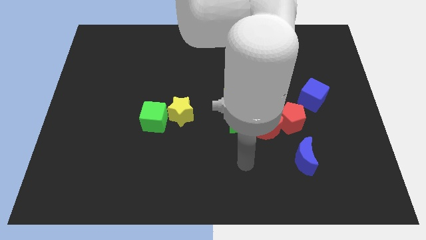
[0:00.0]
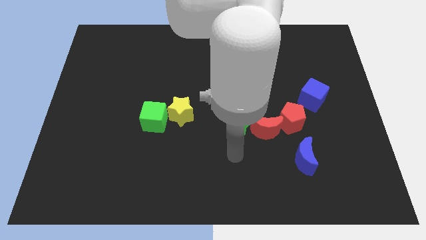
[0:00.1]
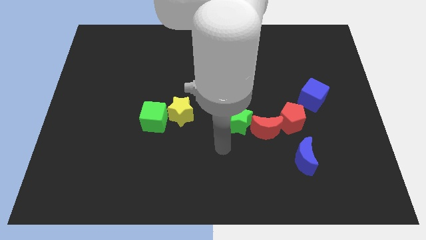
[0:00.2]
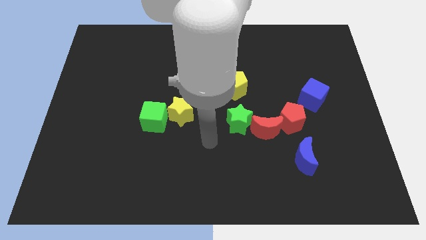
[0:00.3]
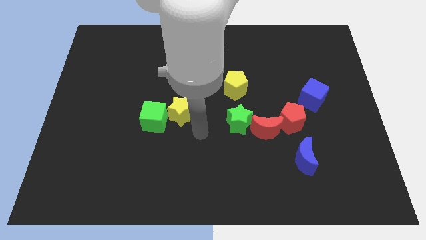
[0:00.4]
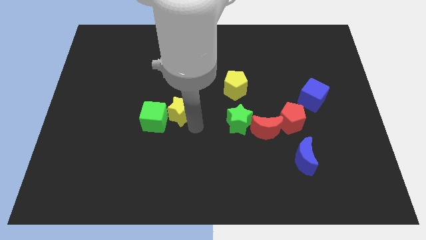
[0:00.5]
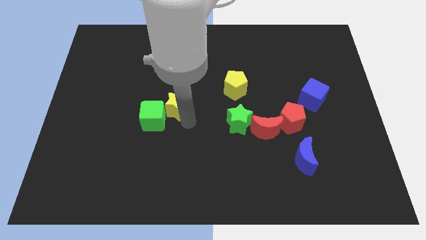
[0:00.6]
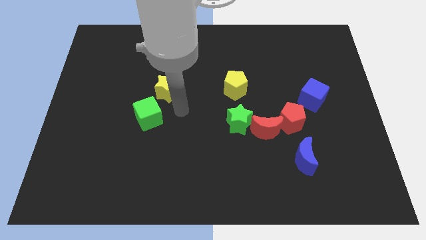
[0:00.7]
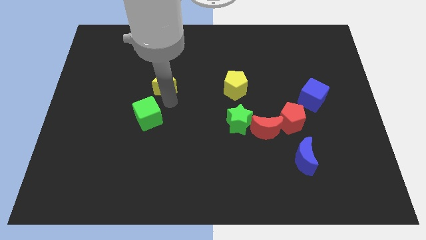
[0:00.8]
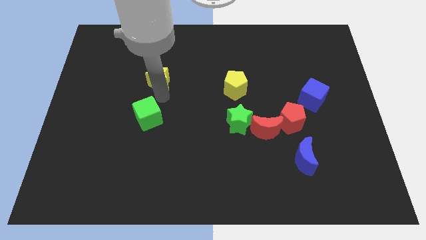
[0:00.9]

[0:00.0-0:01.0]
move the green cube away from the yellow star

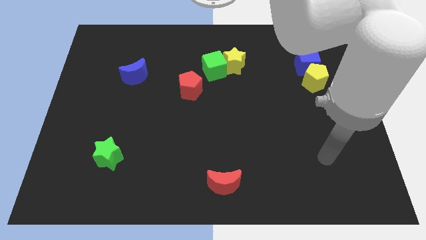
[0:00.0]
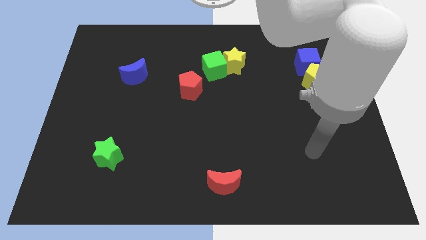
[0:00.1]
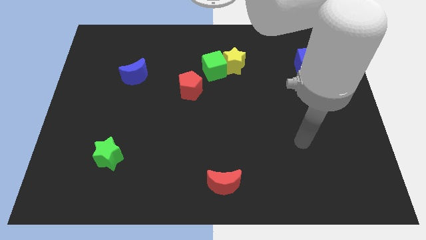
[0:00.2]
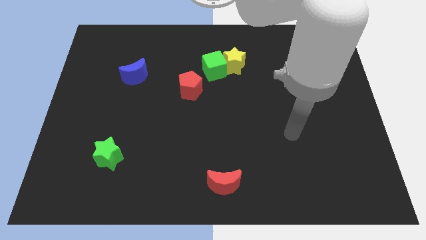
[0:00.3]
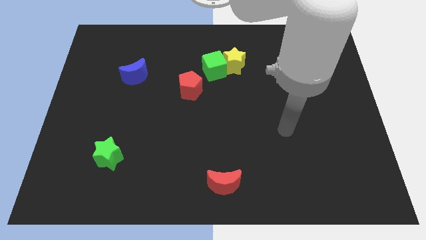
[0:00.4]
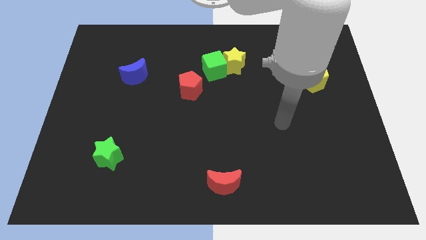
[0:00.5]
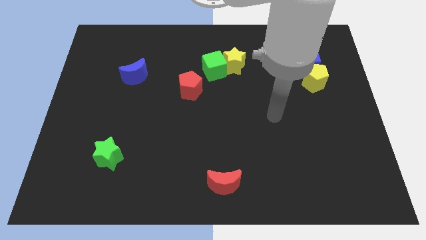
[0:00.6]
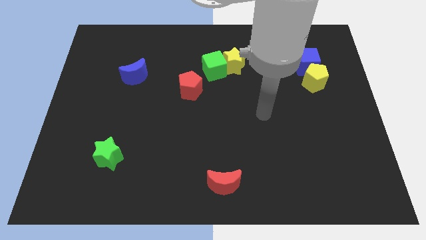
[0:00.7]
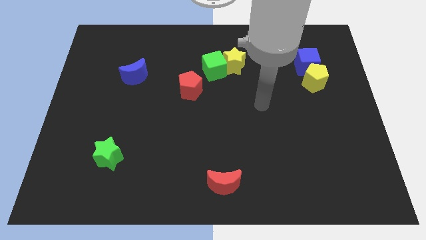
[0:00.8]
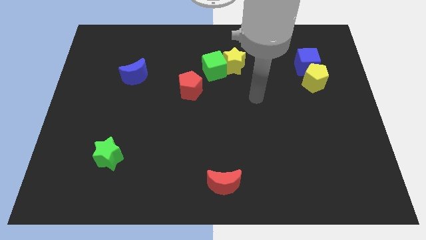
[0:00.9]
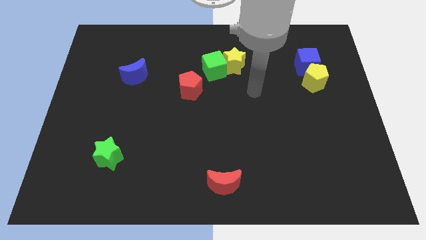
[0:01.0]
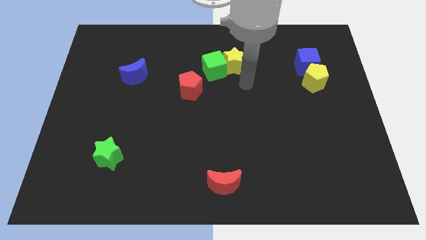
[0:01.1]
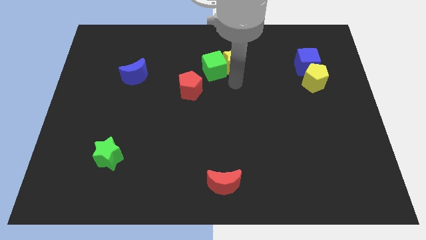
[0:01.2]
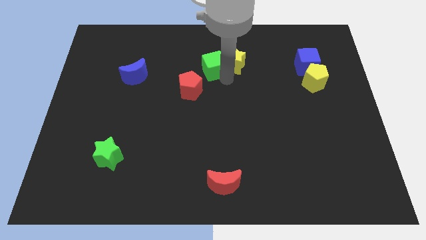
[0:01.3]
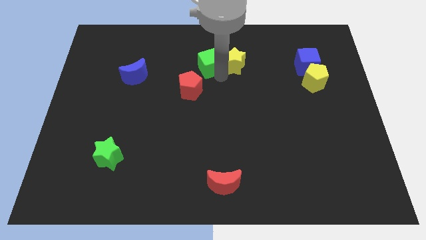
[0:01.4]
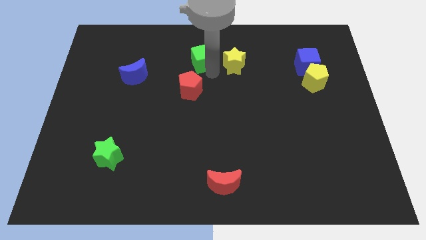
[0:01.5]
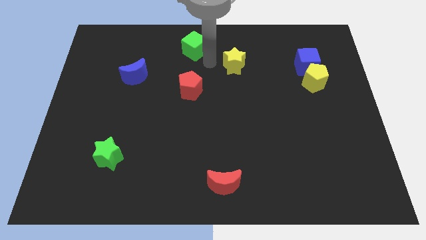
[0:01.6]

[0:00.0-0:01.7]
move the yellow star away from the green cube

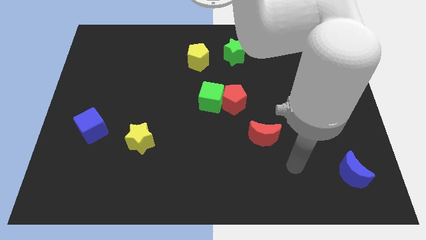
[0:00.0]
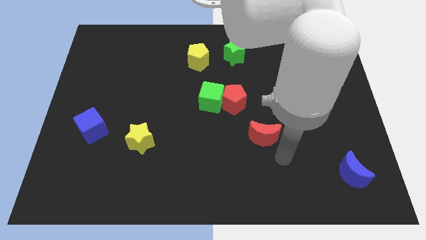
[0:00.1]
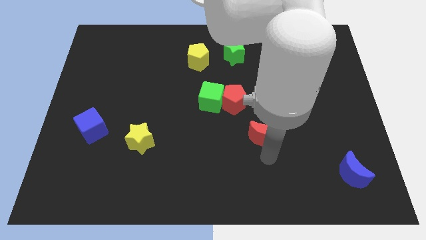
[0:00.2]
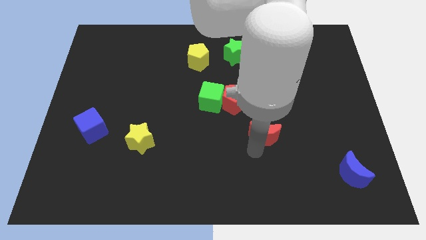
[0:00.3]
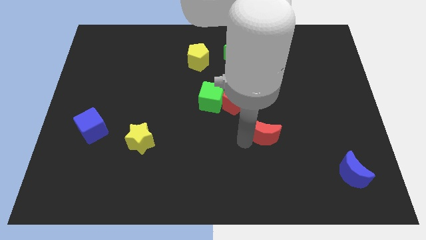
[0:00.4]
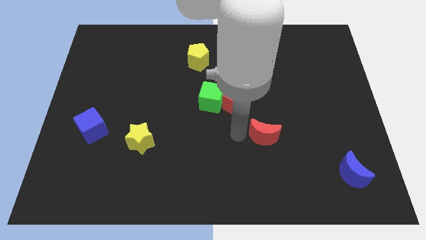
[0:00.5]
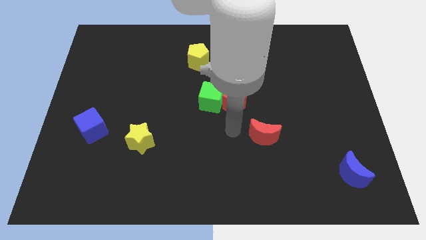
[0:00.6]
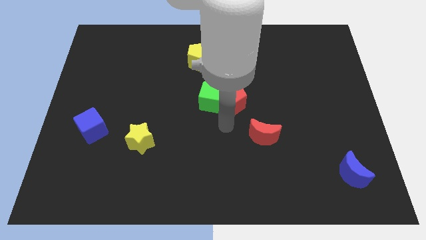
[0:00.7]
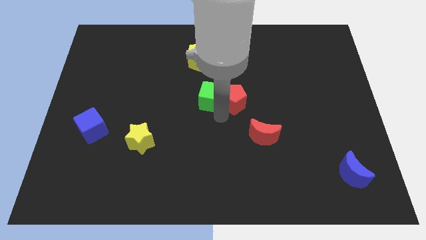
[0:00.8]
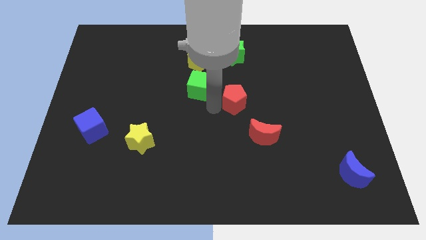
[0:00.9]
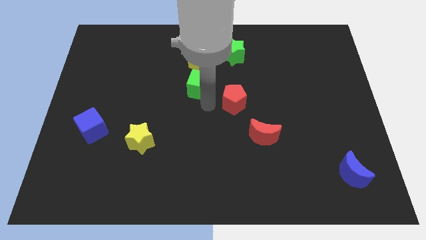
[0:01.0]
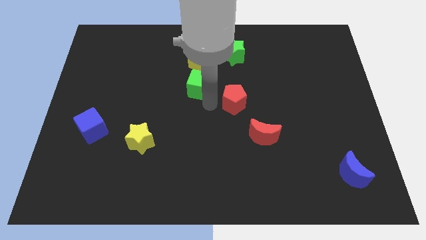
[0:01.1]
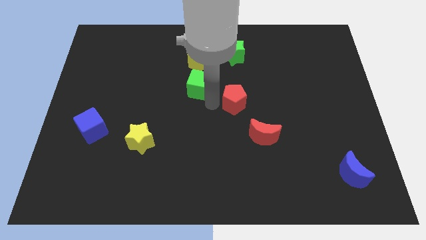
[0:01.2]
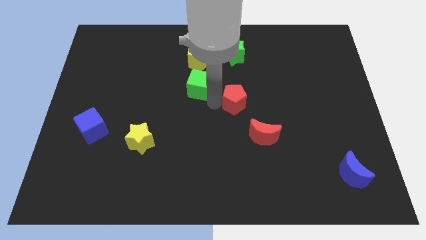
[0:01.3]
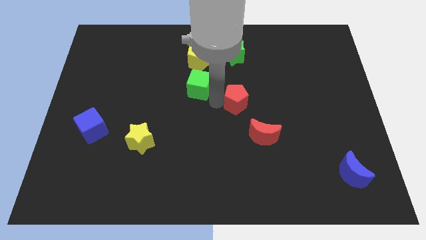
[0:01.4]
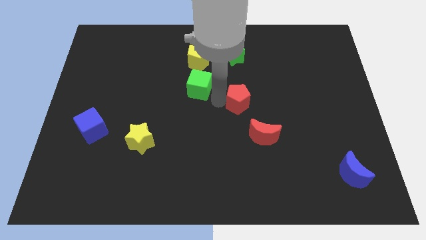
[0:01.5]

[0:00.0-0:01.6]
separate the red pentagon from the green cube

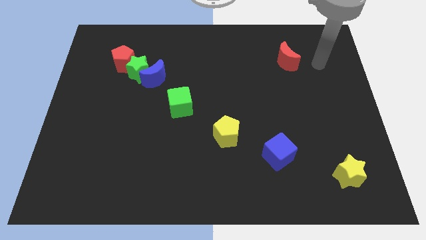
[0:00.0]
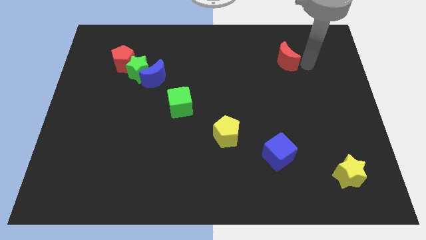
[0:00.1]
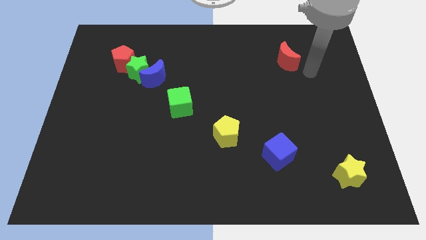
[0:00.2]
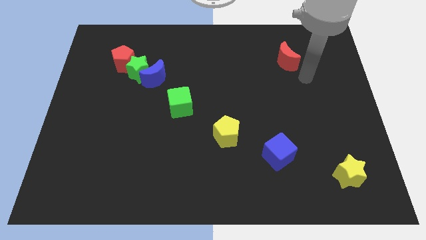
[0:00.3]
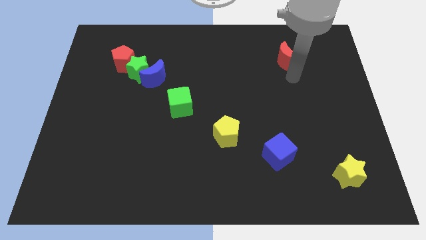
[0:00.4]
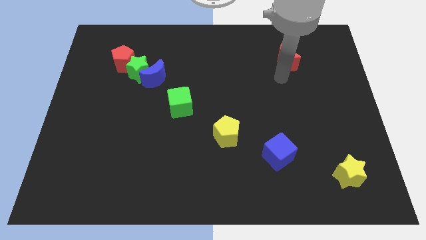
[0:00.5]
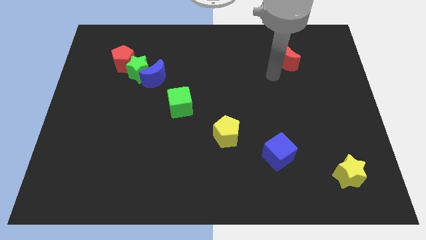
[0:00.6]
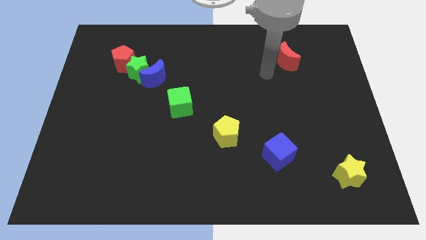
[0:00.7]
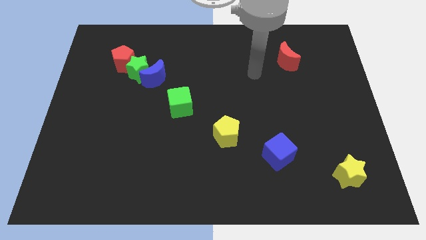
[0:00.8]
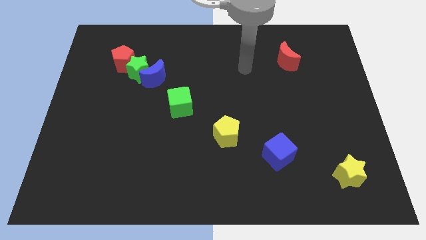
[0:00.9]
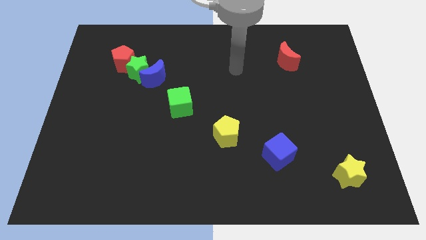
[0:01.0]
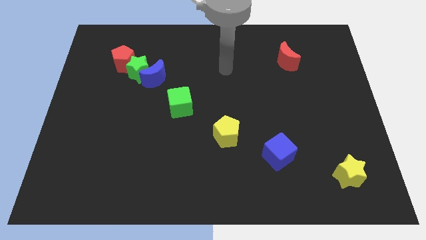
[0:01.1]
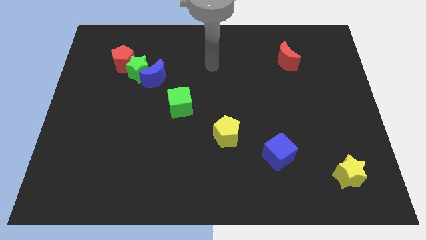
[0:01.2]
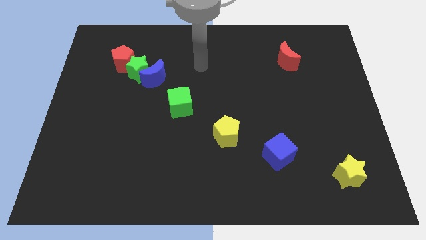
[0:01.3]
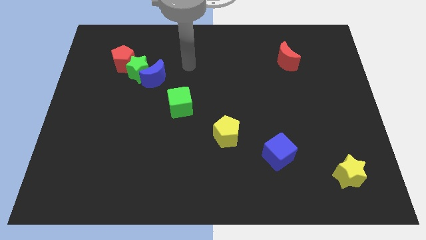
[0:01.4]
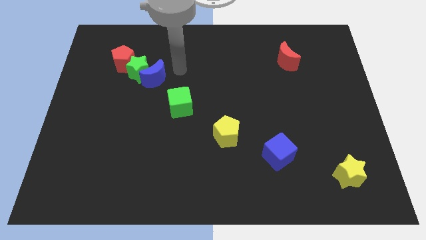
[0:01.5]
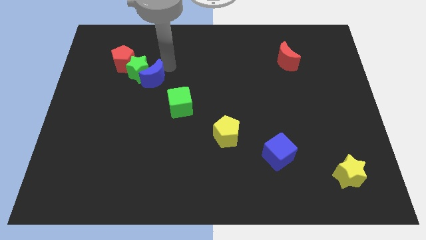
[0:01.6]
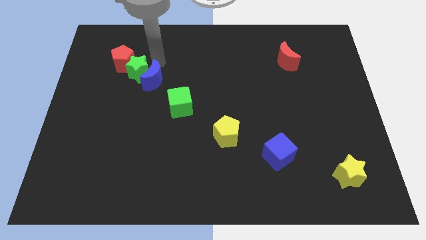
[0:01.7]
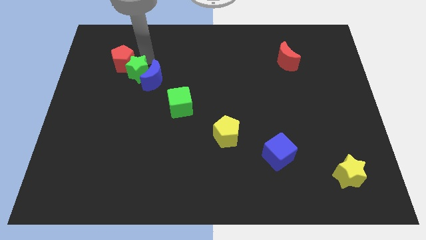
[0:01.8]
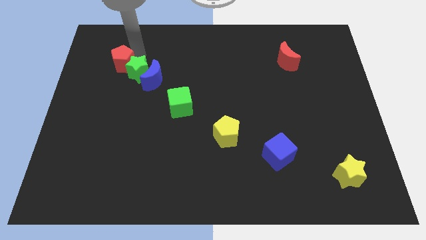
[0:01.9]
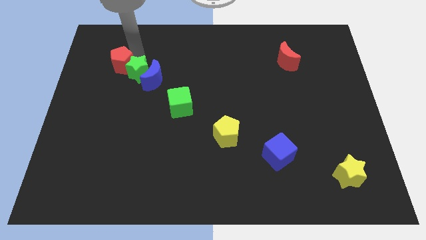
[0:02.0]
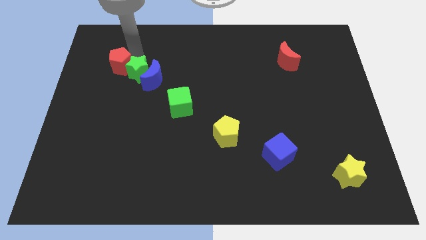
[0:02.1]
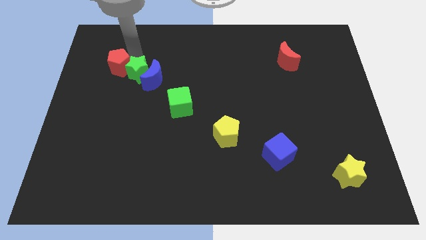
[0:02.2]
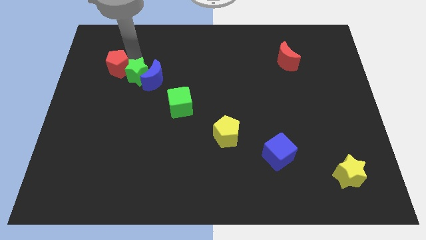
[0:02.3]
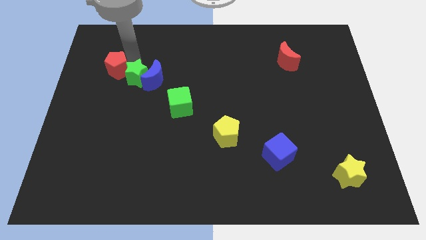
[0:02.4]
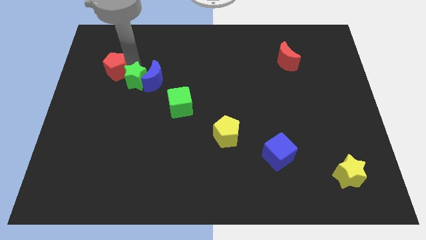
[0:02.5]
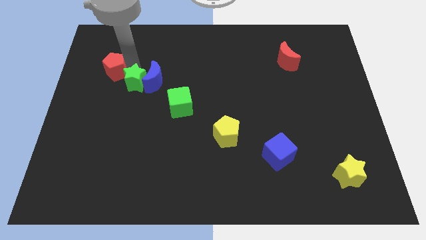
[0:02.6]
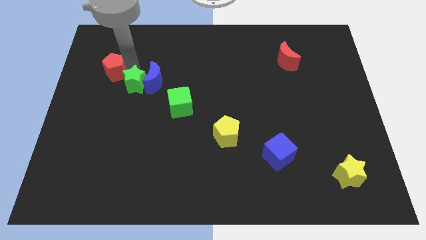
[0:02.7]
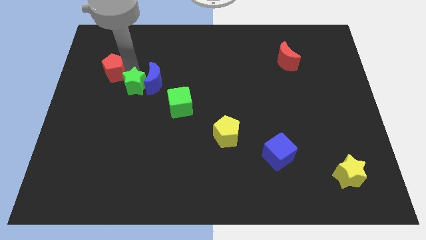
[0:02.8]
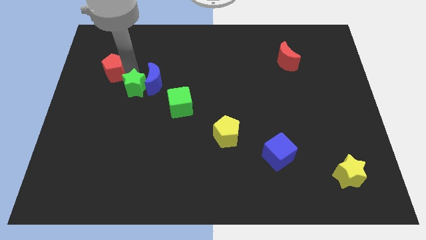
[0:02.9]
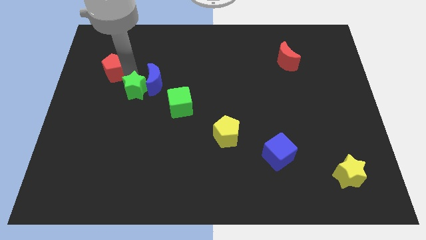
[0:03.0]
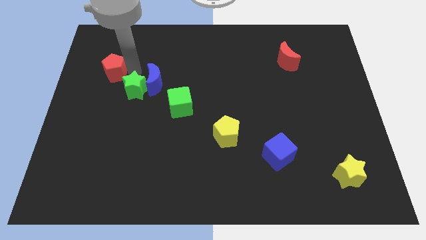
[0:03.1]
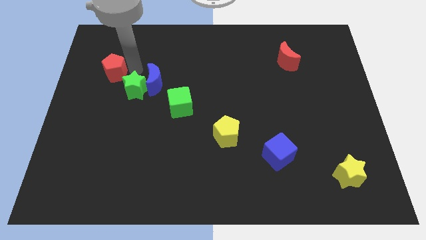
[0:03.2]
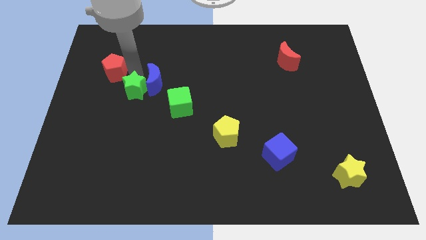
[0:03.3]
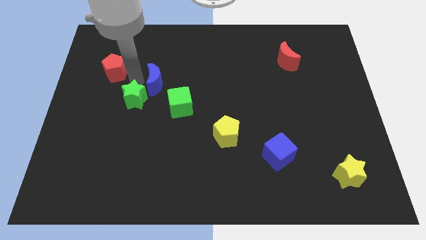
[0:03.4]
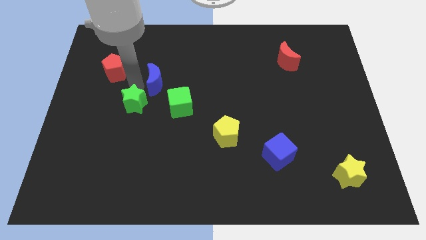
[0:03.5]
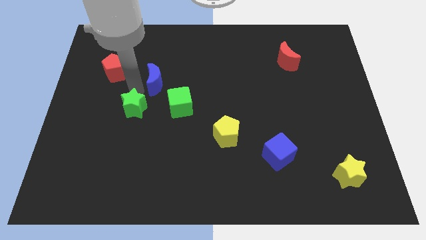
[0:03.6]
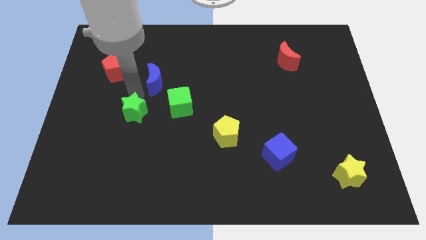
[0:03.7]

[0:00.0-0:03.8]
separate the green star from the blue moon and red pentagon

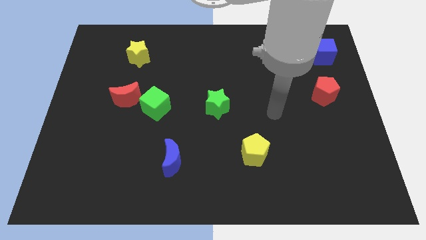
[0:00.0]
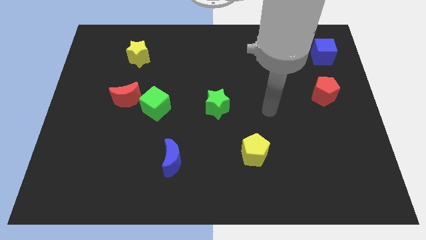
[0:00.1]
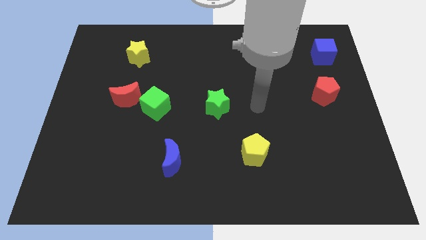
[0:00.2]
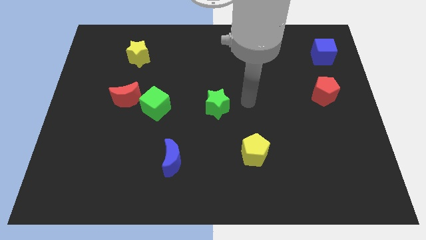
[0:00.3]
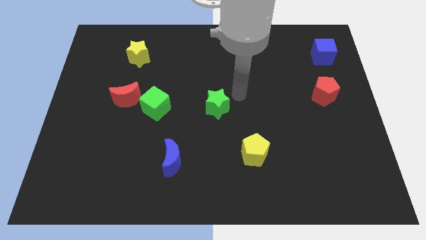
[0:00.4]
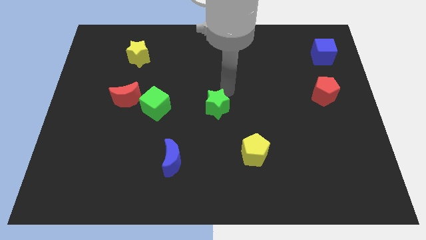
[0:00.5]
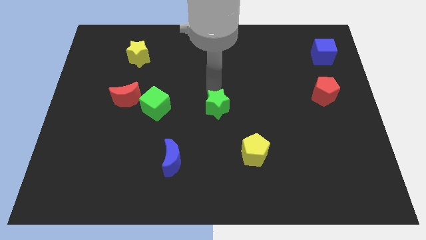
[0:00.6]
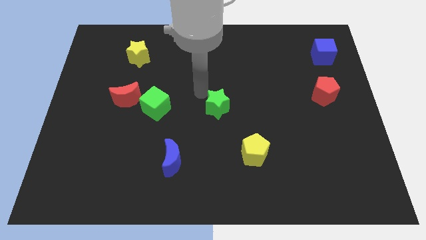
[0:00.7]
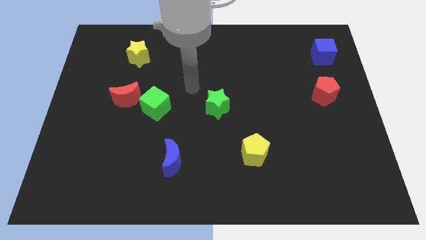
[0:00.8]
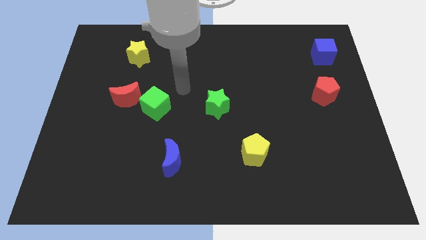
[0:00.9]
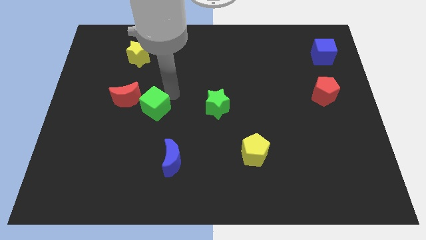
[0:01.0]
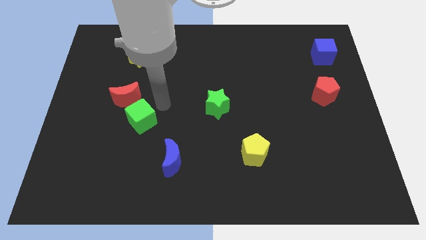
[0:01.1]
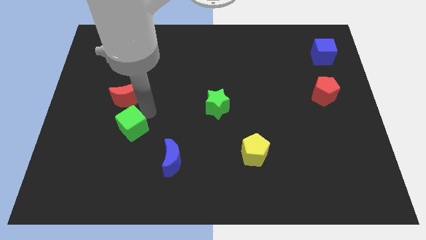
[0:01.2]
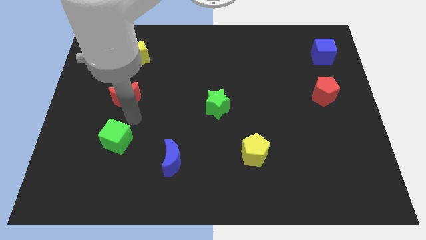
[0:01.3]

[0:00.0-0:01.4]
move the red moon away from the green cube
